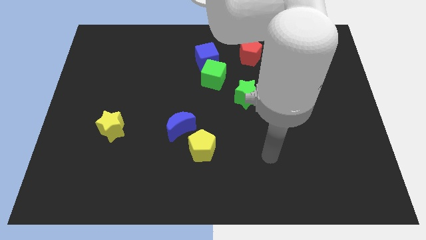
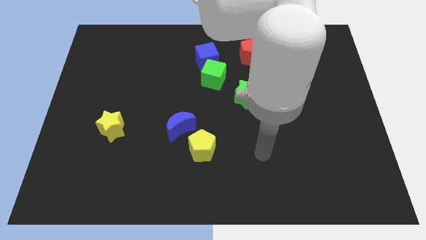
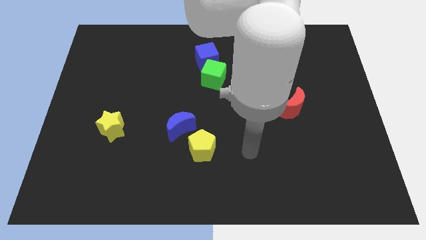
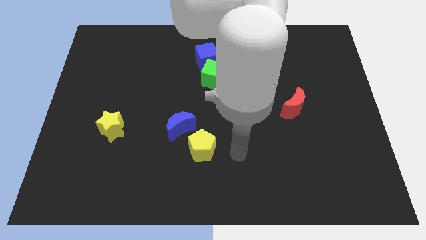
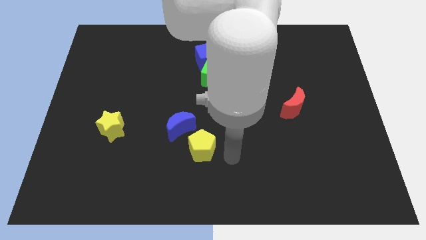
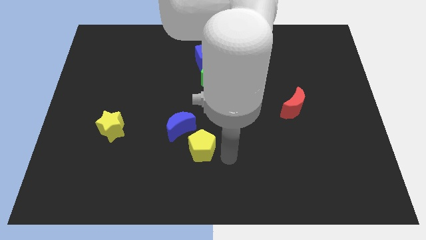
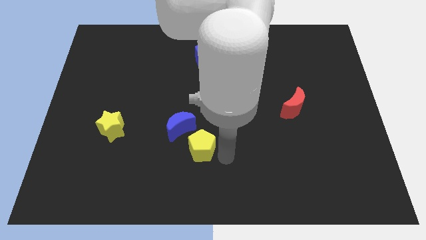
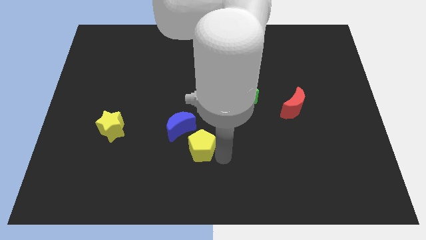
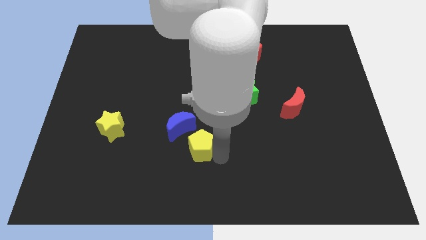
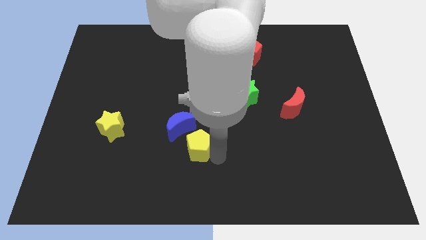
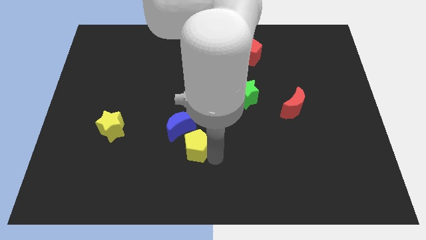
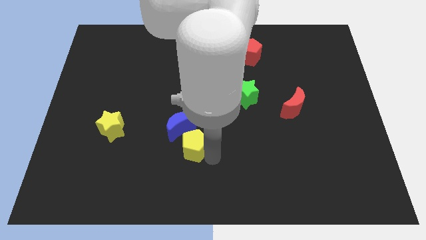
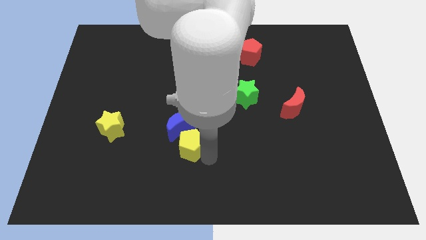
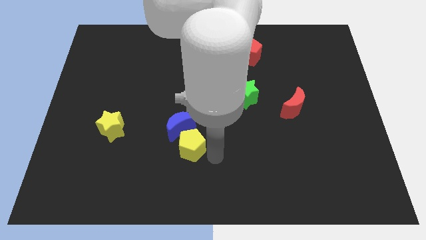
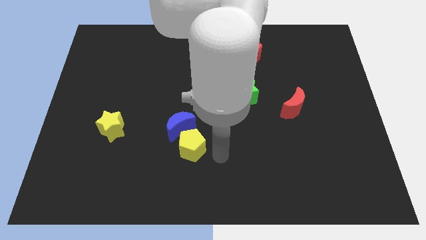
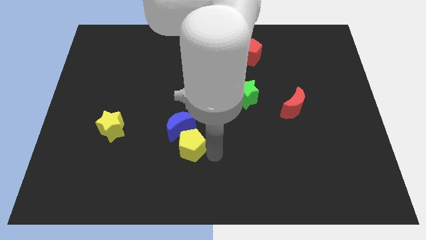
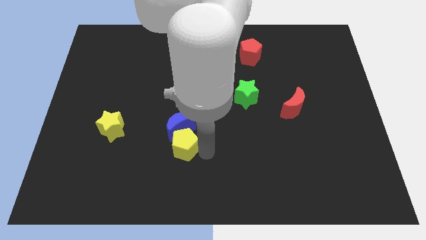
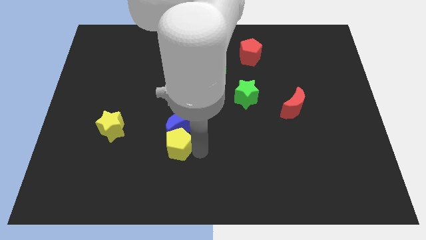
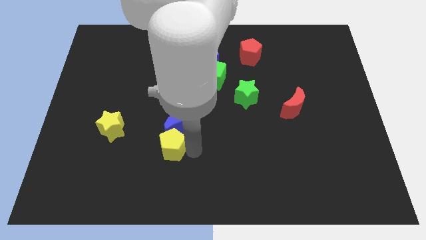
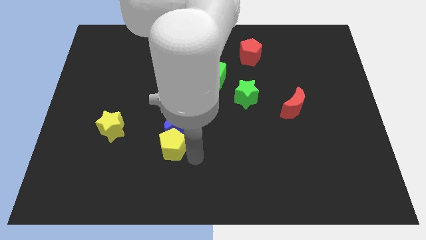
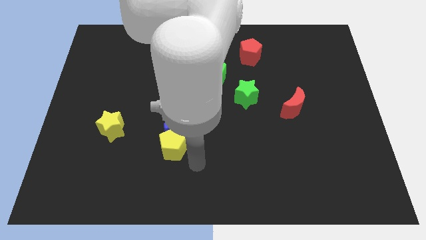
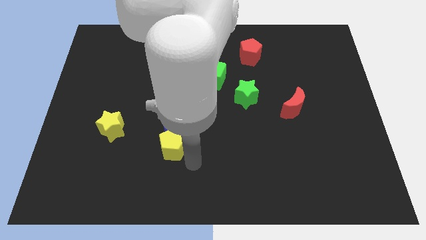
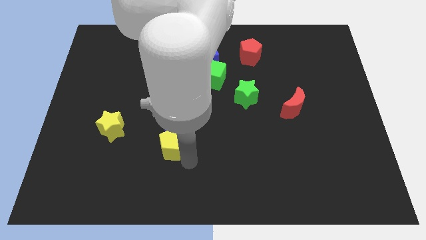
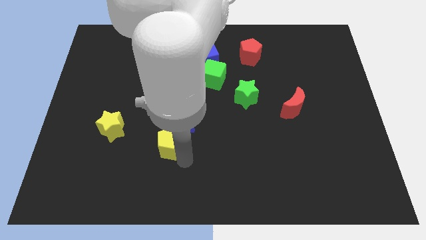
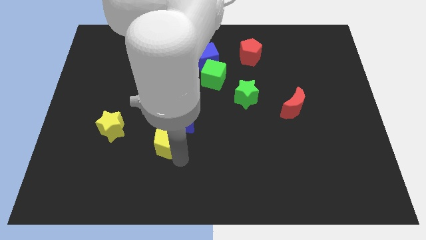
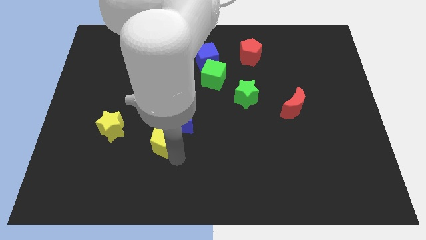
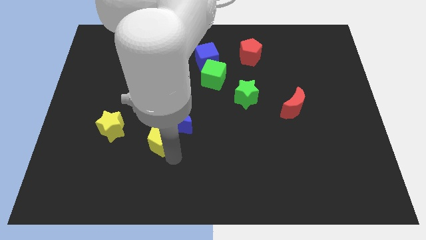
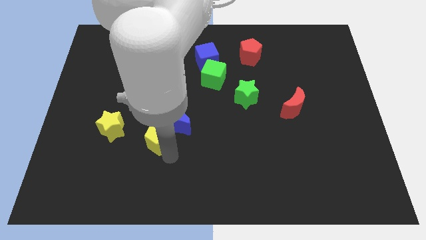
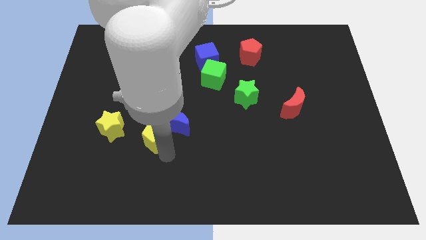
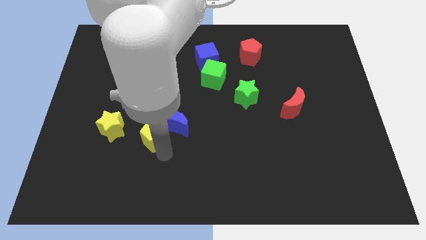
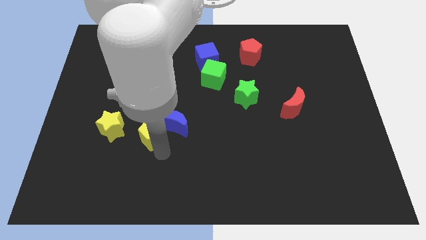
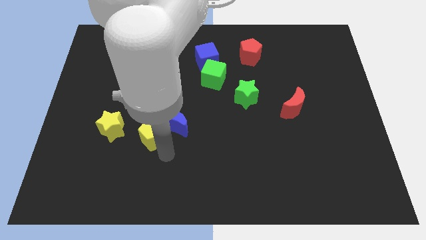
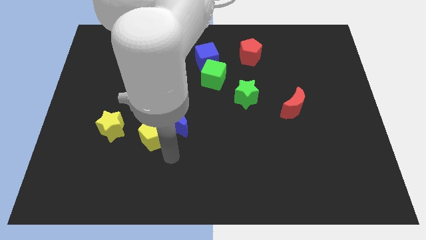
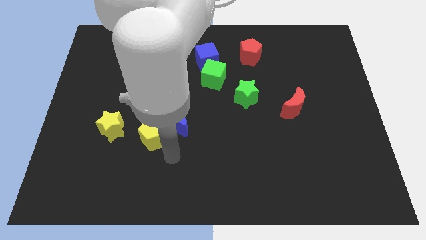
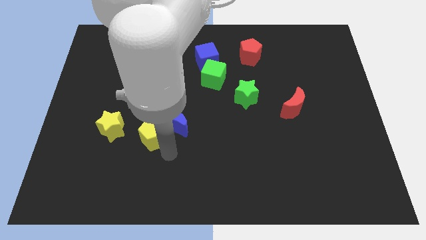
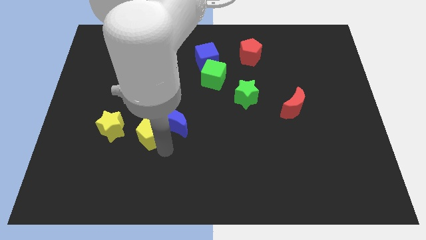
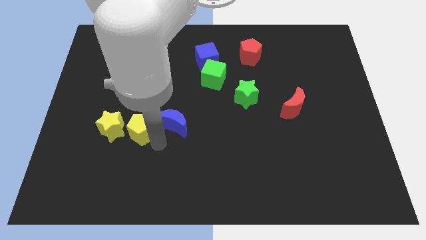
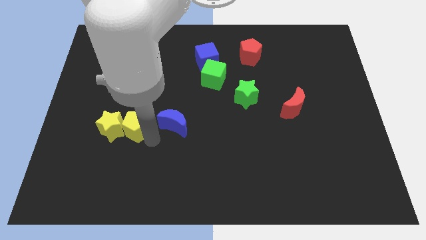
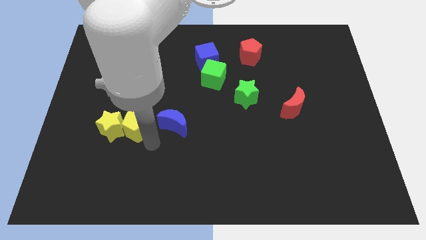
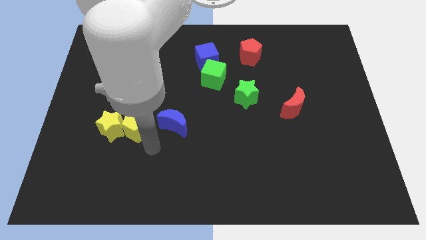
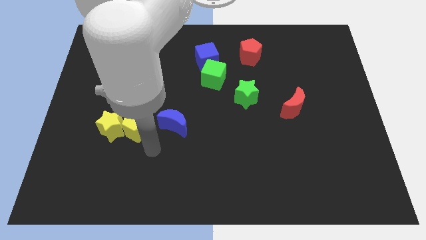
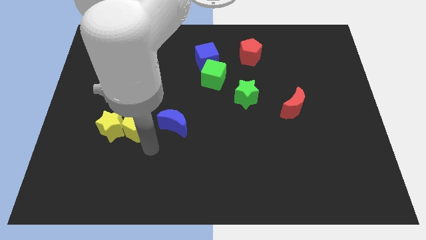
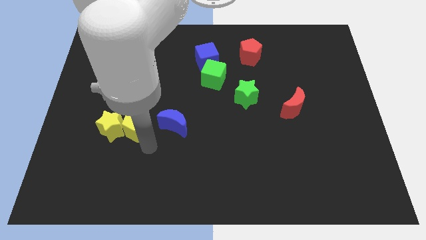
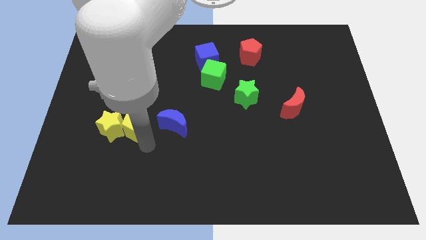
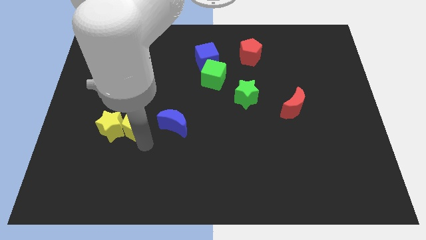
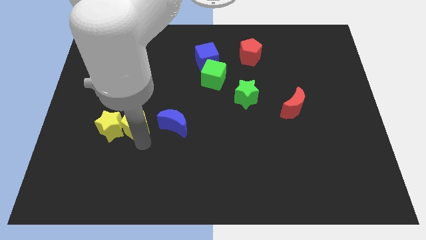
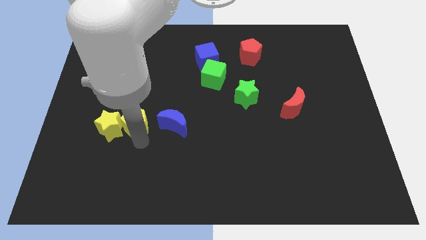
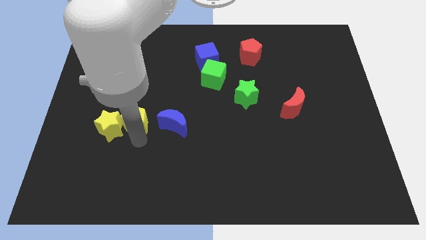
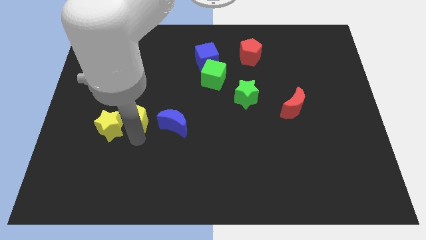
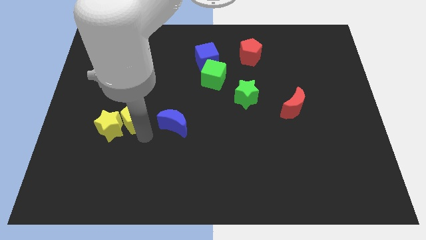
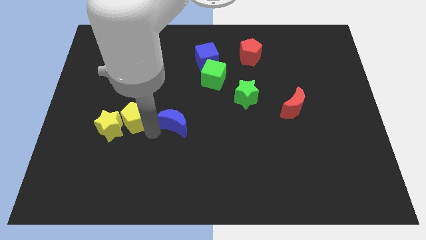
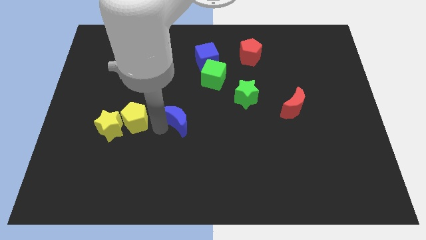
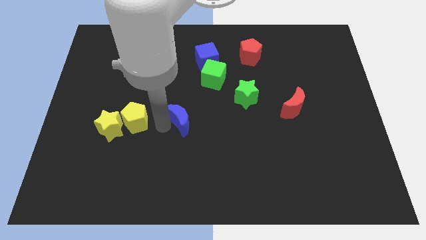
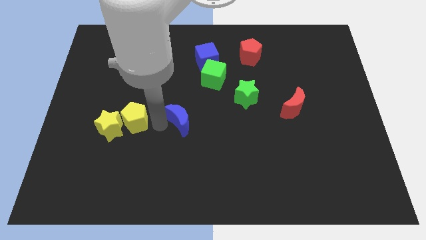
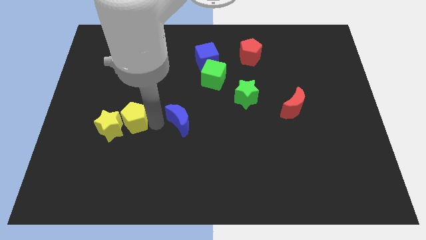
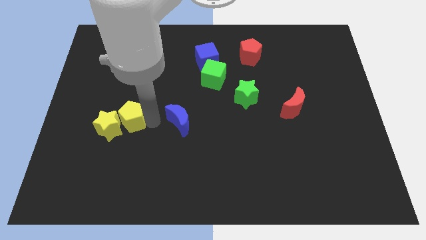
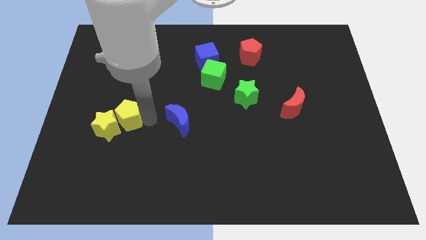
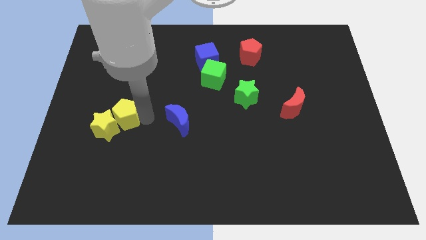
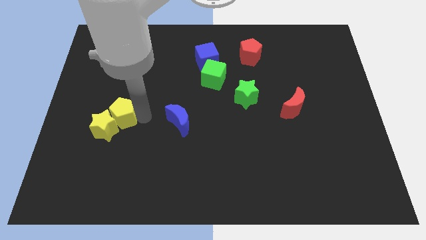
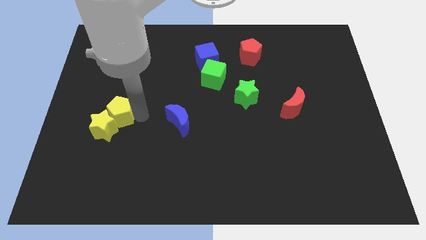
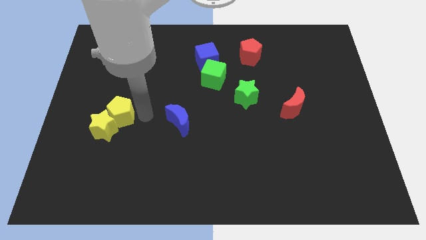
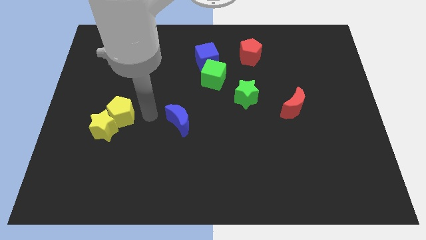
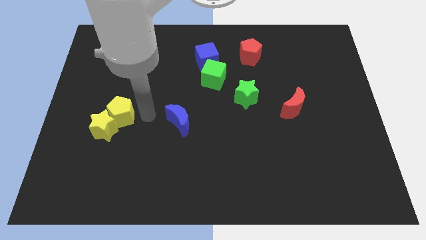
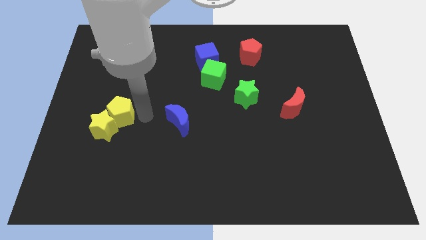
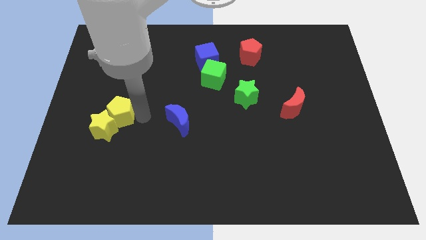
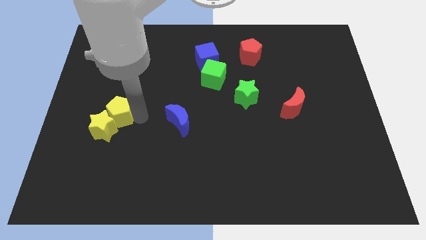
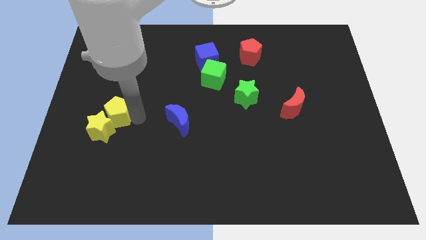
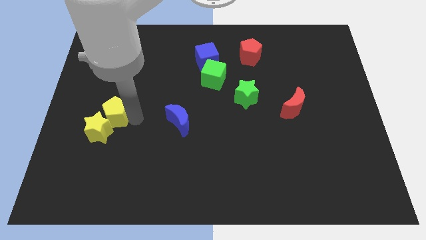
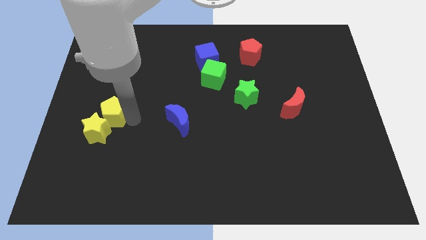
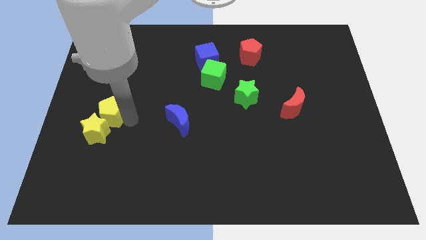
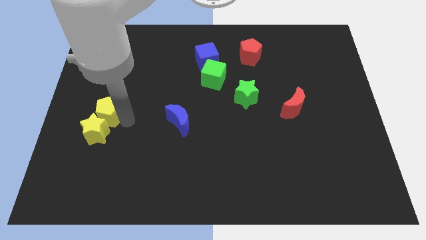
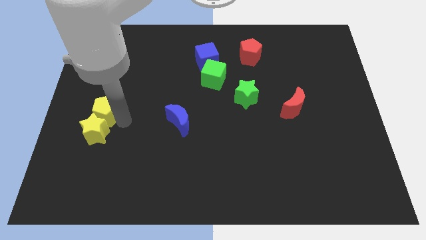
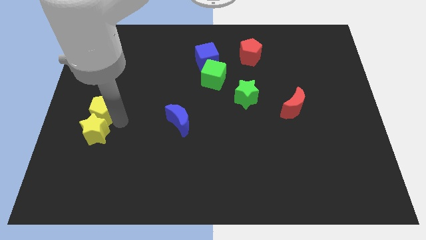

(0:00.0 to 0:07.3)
put the yellow pentagon to the left side of the board
